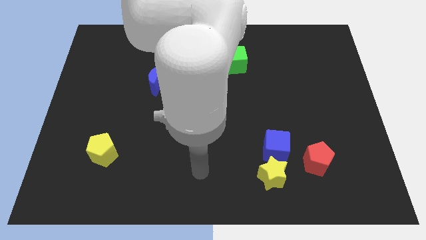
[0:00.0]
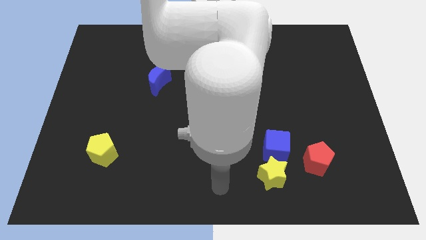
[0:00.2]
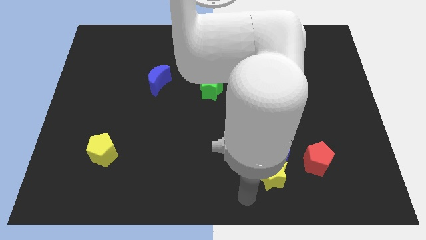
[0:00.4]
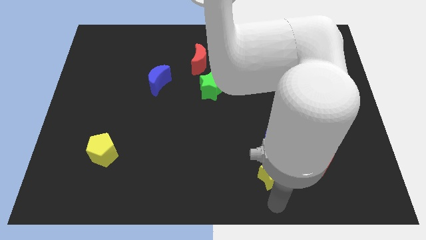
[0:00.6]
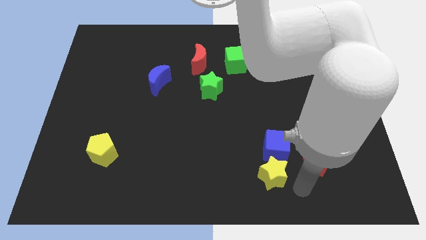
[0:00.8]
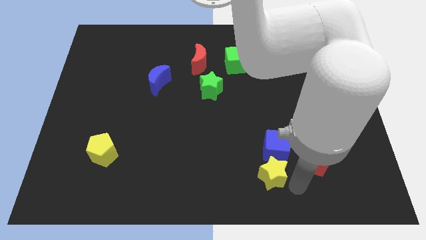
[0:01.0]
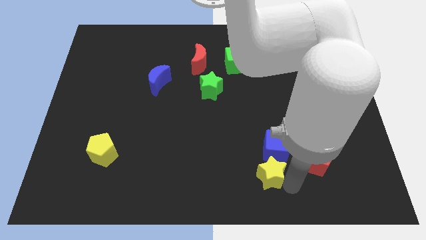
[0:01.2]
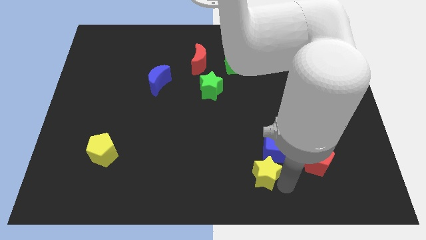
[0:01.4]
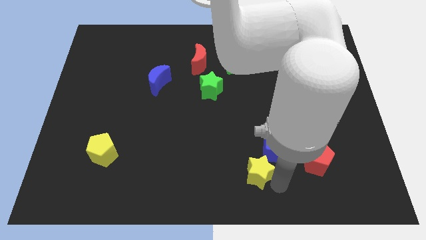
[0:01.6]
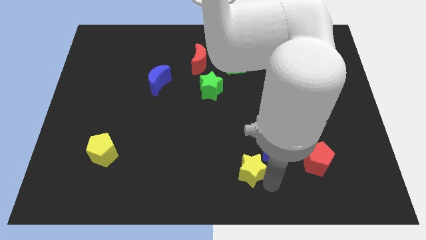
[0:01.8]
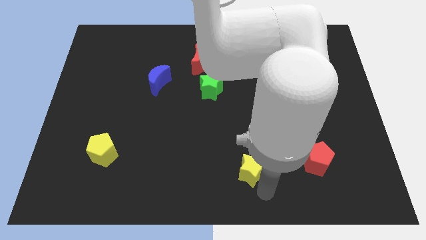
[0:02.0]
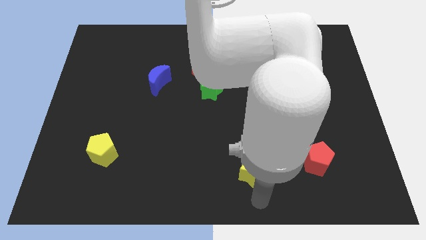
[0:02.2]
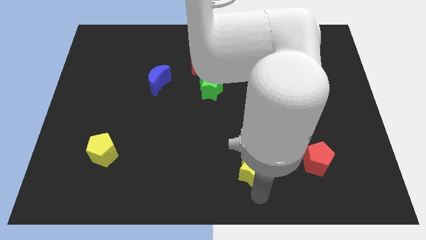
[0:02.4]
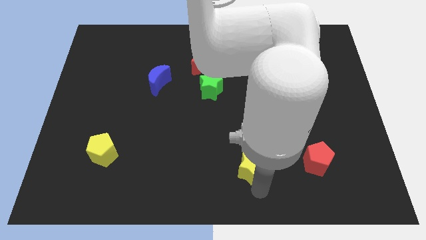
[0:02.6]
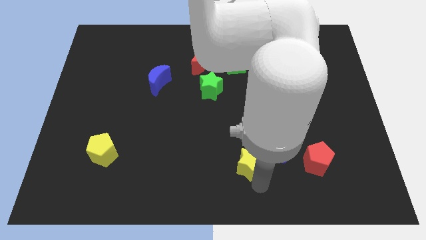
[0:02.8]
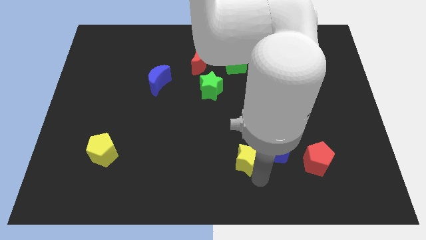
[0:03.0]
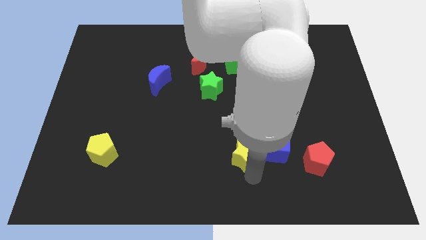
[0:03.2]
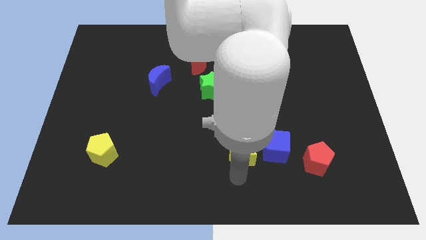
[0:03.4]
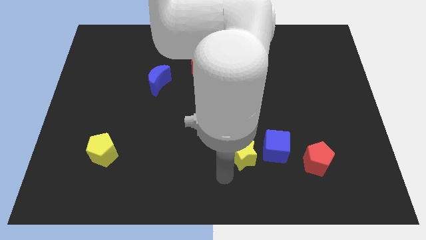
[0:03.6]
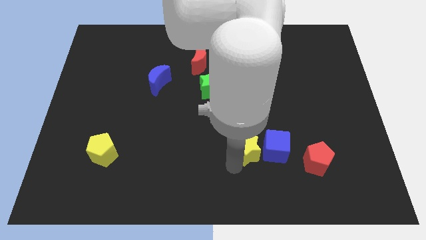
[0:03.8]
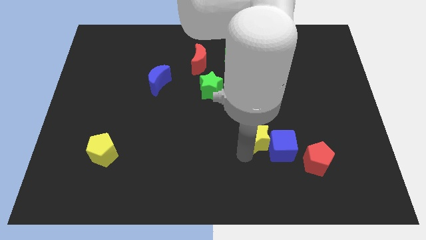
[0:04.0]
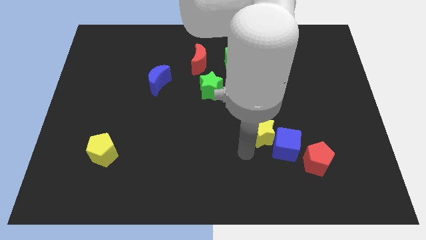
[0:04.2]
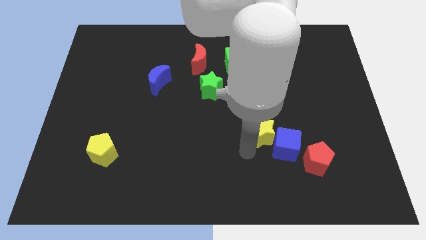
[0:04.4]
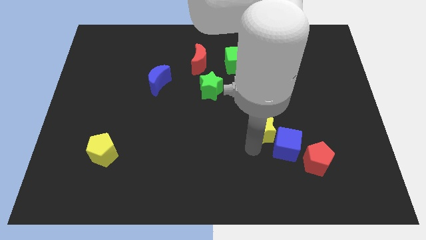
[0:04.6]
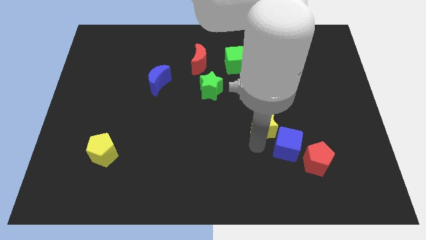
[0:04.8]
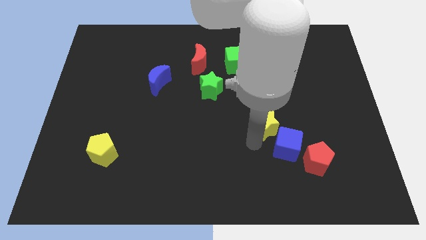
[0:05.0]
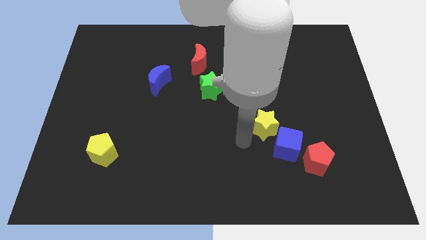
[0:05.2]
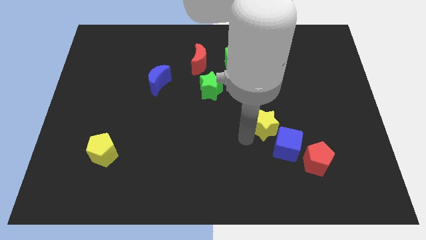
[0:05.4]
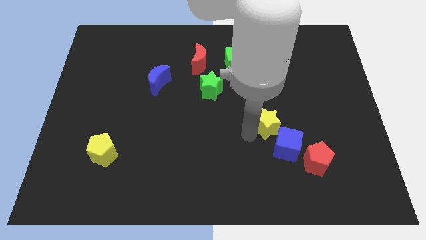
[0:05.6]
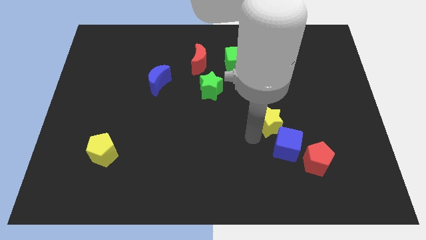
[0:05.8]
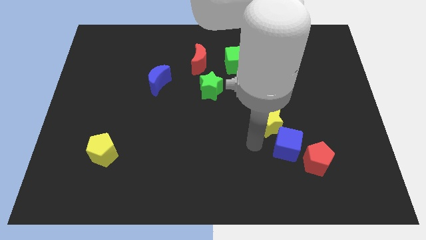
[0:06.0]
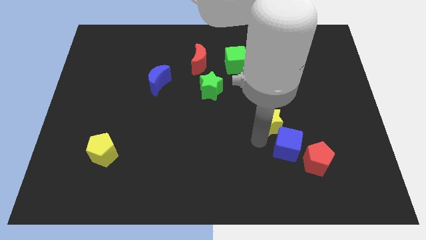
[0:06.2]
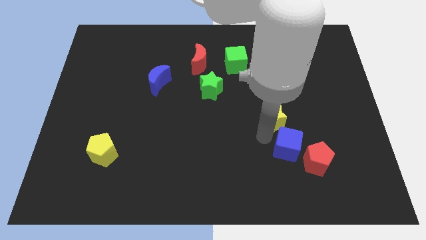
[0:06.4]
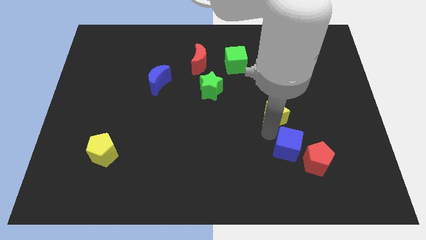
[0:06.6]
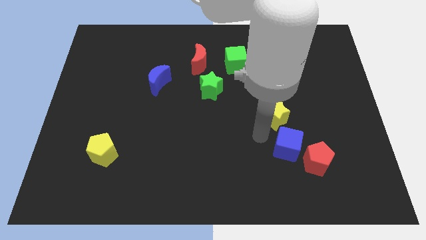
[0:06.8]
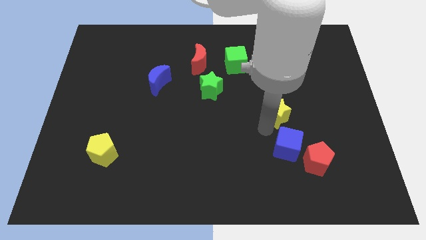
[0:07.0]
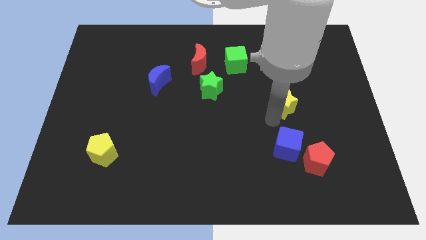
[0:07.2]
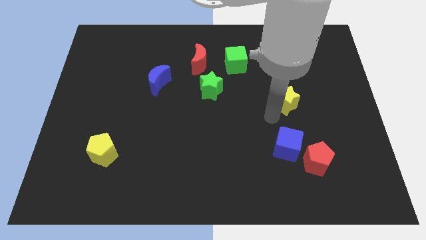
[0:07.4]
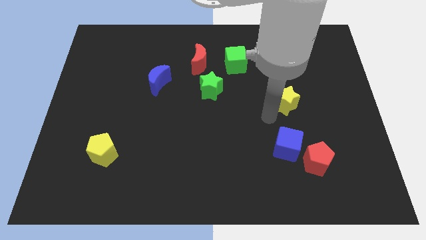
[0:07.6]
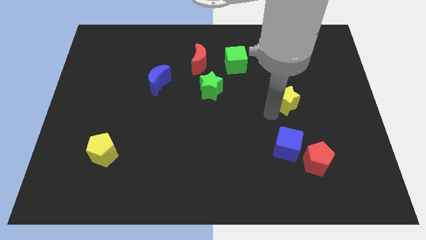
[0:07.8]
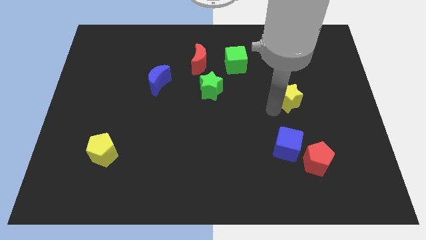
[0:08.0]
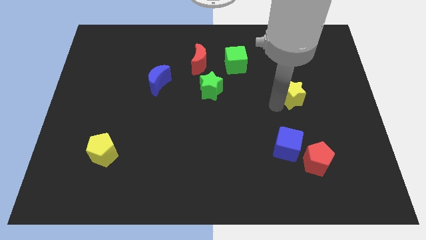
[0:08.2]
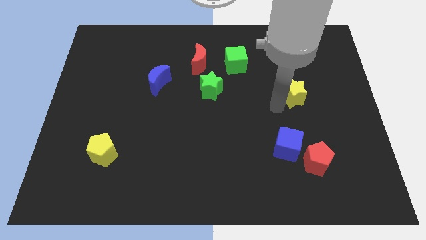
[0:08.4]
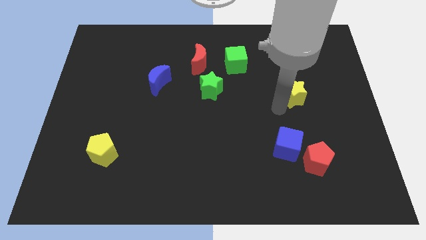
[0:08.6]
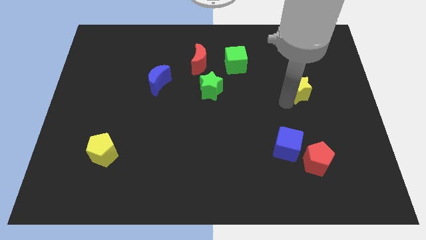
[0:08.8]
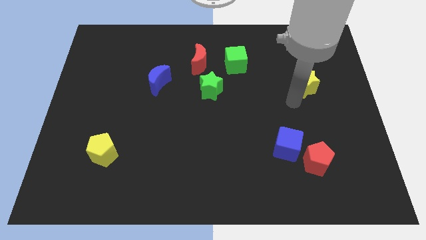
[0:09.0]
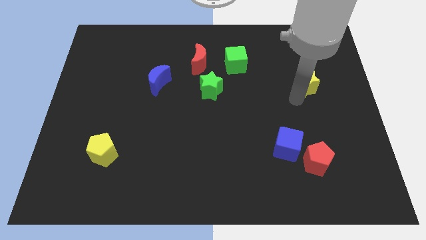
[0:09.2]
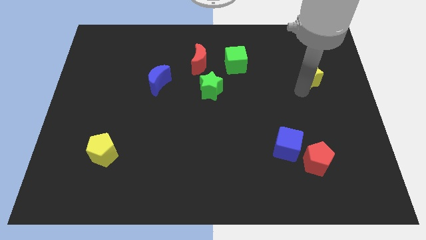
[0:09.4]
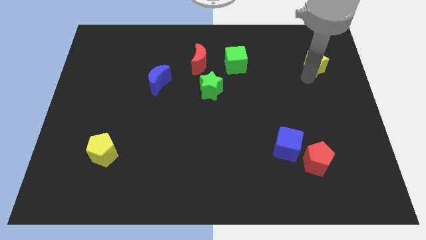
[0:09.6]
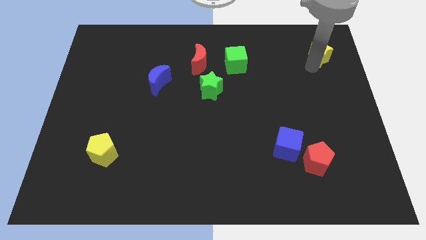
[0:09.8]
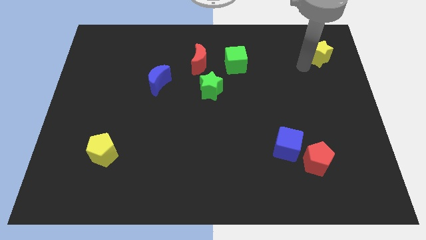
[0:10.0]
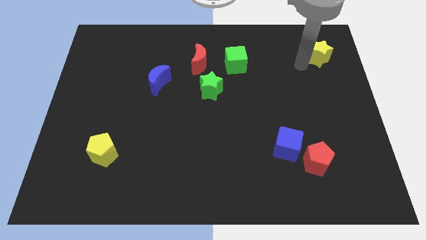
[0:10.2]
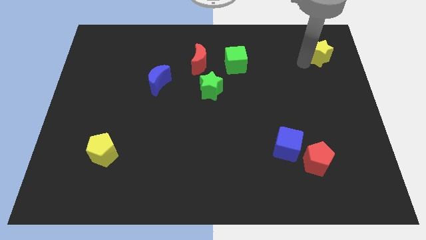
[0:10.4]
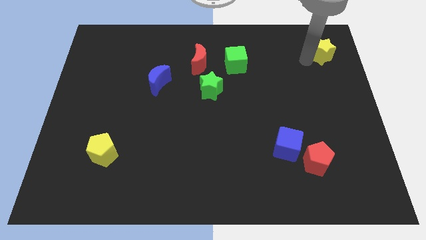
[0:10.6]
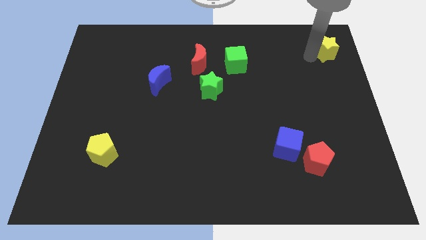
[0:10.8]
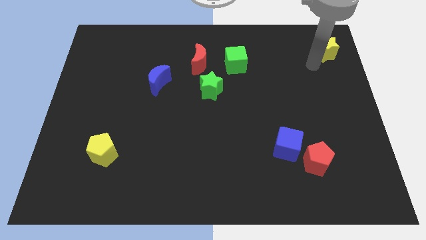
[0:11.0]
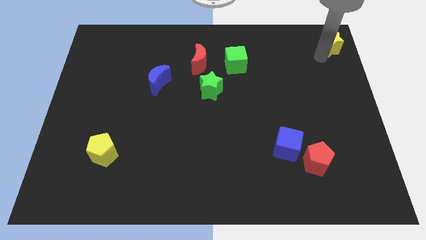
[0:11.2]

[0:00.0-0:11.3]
move the yellow star to the upper right corner

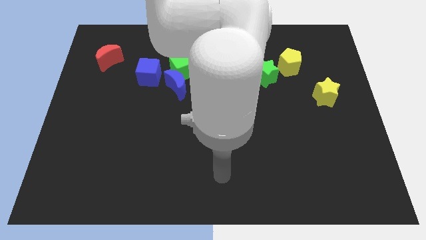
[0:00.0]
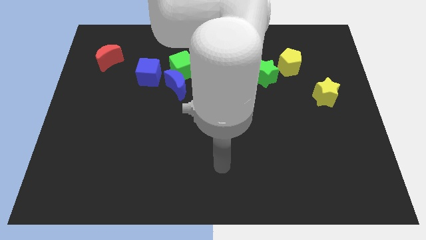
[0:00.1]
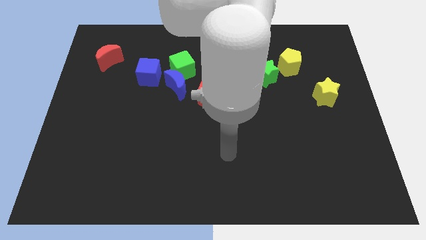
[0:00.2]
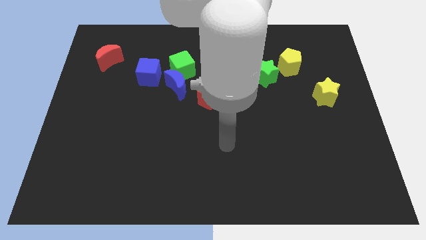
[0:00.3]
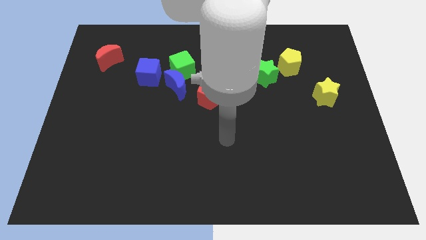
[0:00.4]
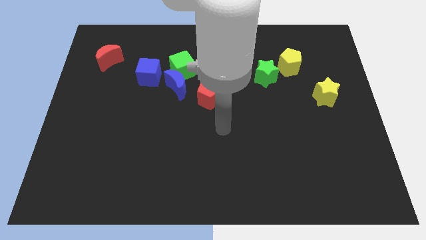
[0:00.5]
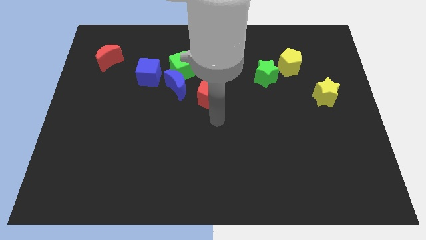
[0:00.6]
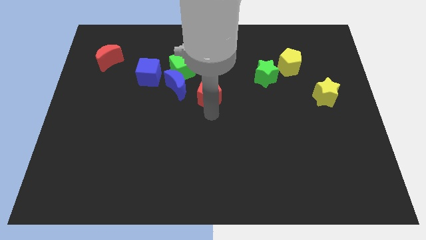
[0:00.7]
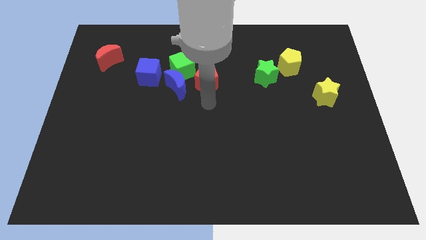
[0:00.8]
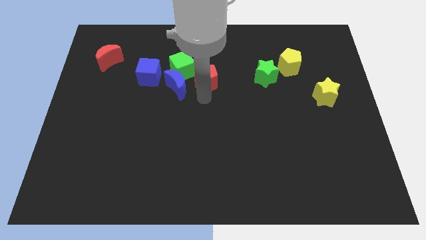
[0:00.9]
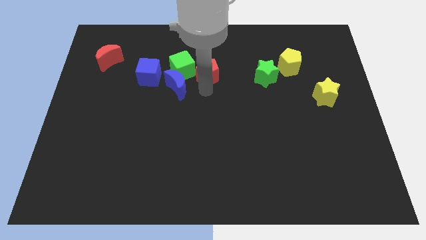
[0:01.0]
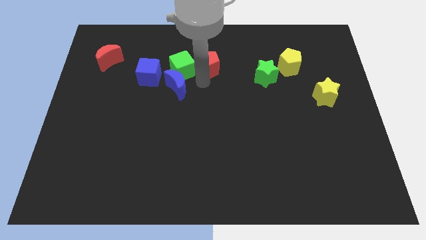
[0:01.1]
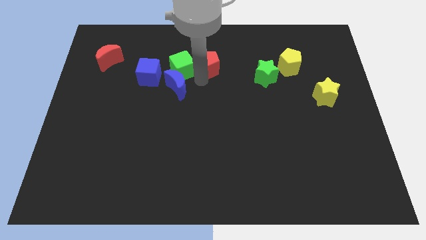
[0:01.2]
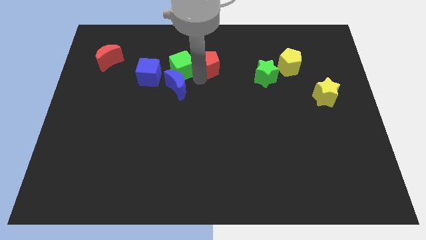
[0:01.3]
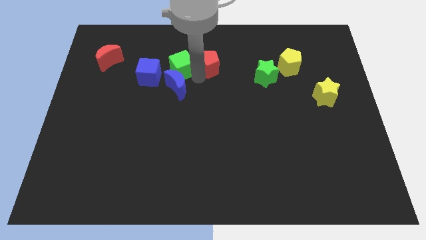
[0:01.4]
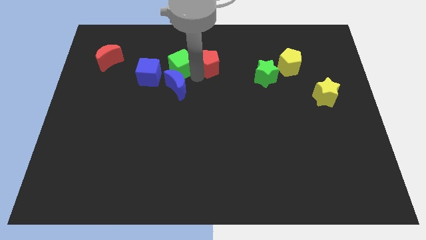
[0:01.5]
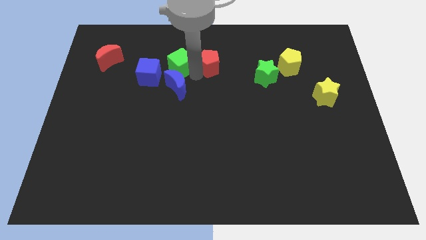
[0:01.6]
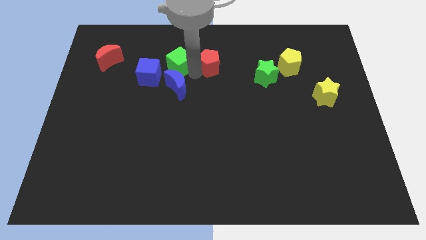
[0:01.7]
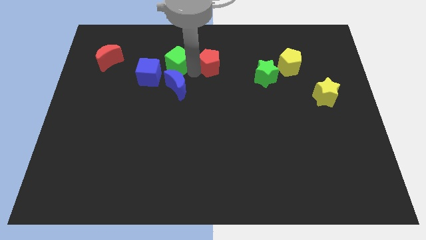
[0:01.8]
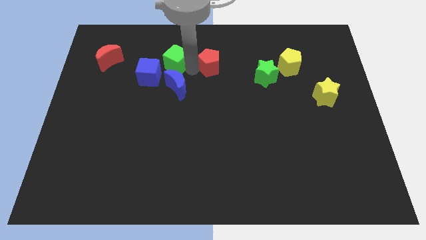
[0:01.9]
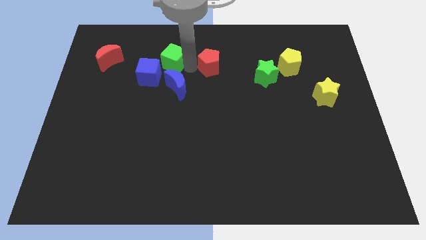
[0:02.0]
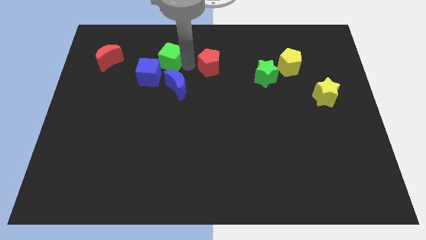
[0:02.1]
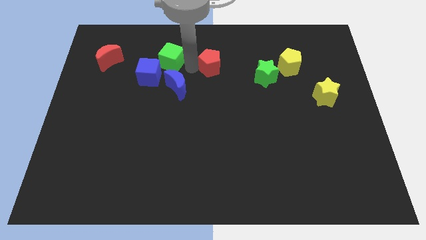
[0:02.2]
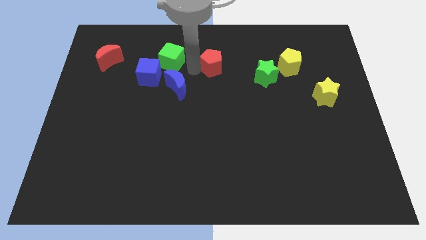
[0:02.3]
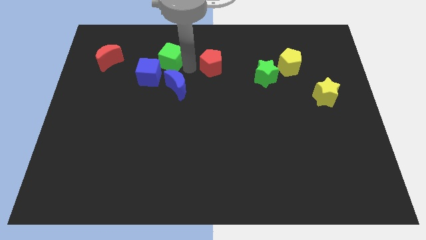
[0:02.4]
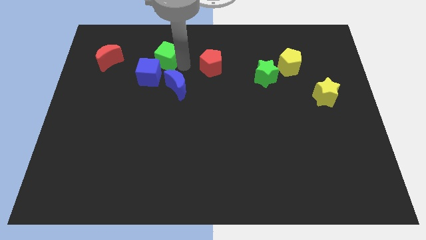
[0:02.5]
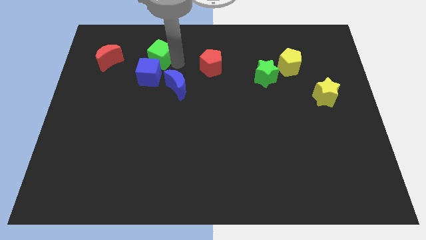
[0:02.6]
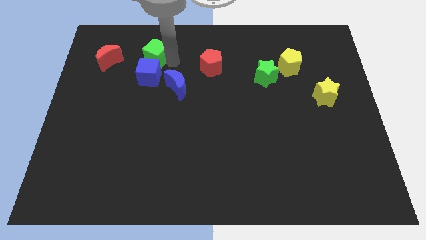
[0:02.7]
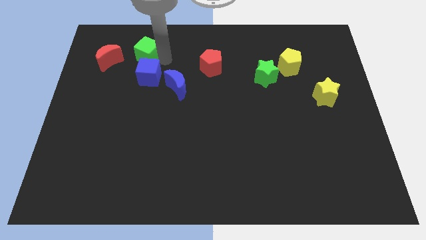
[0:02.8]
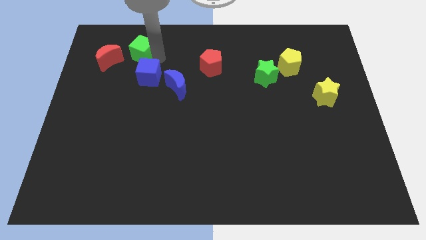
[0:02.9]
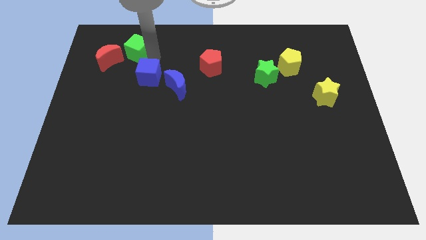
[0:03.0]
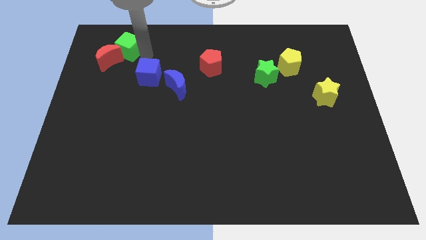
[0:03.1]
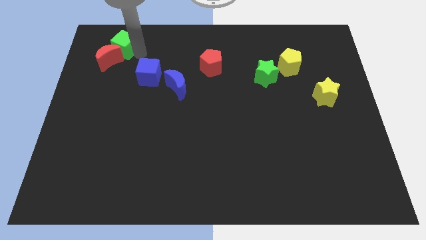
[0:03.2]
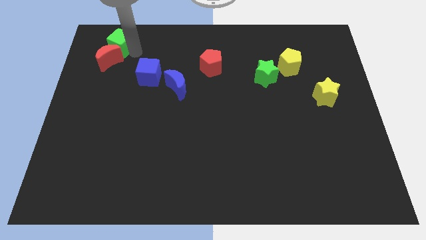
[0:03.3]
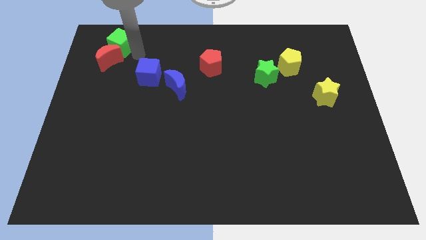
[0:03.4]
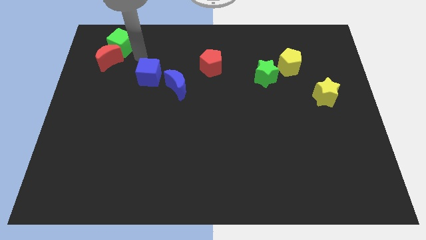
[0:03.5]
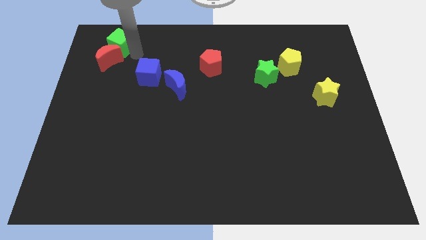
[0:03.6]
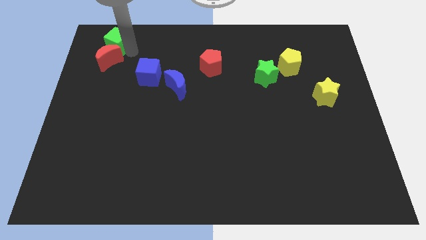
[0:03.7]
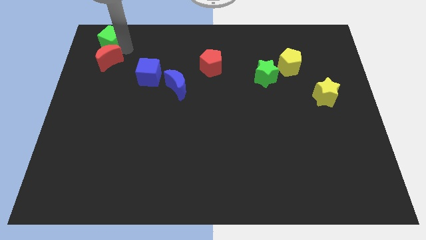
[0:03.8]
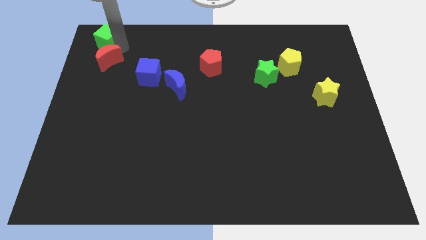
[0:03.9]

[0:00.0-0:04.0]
slide the green cube to the top left corner
